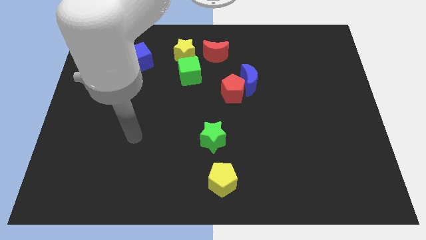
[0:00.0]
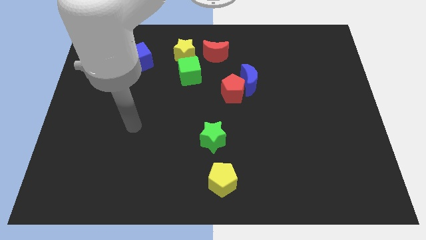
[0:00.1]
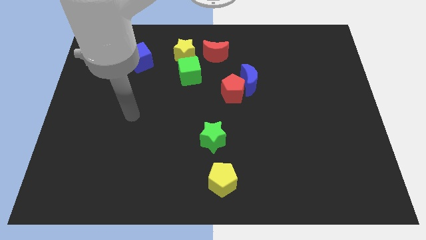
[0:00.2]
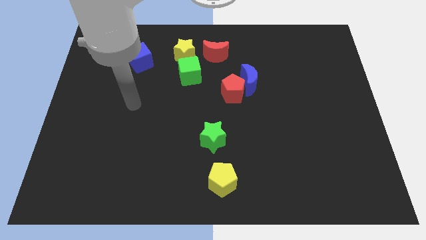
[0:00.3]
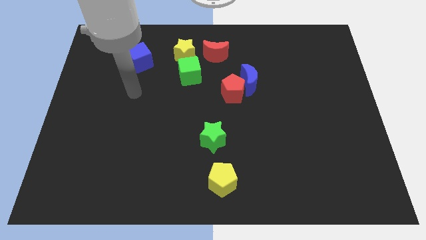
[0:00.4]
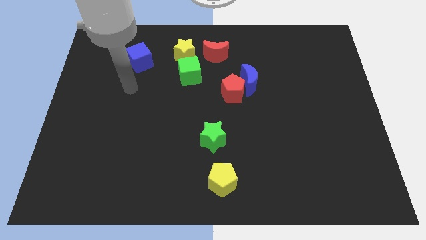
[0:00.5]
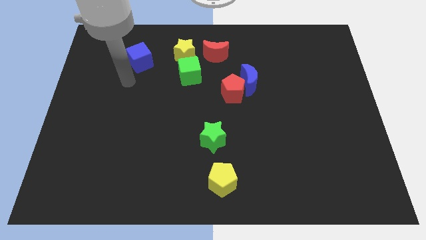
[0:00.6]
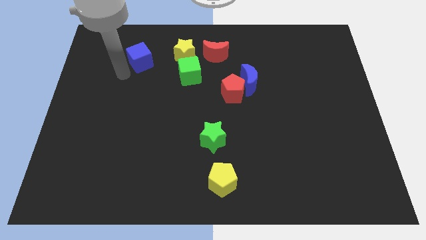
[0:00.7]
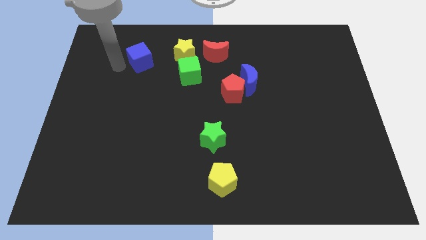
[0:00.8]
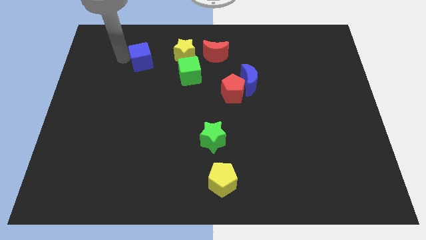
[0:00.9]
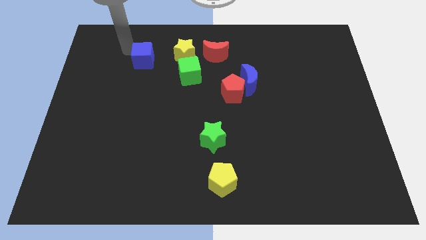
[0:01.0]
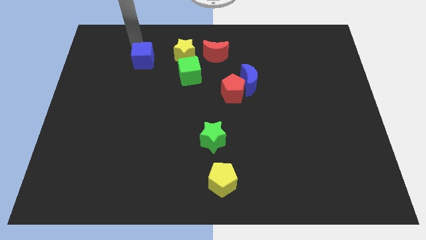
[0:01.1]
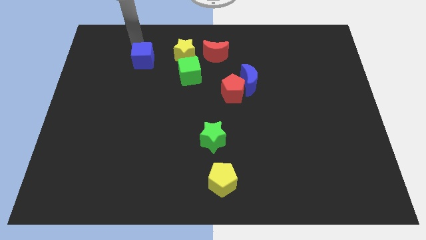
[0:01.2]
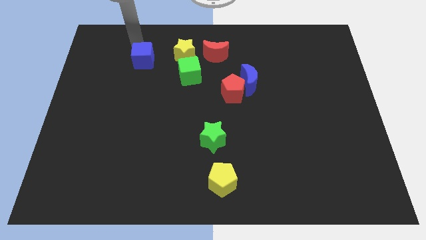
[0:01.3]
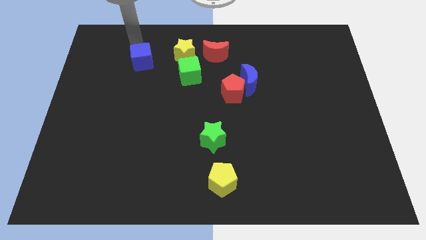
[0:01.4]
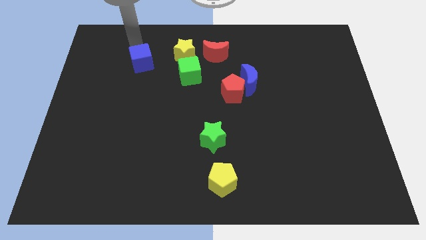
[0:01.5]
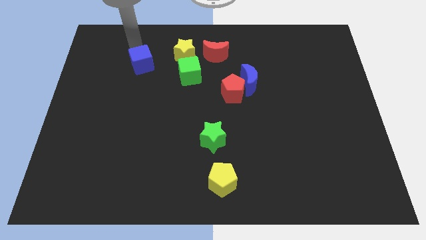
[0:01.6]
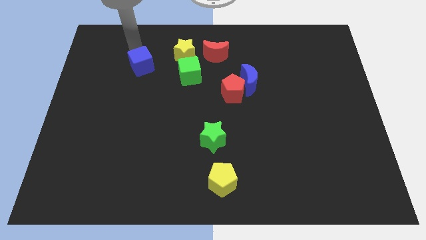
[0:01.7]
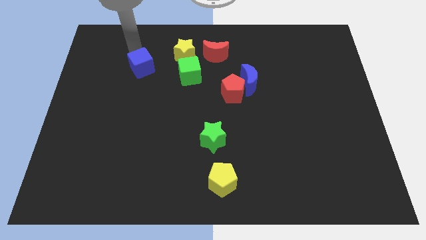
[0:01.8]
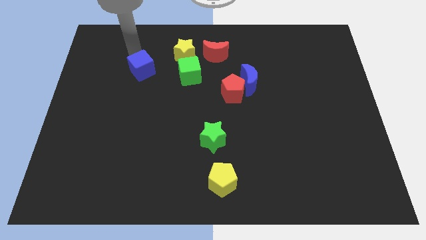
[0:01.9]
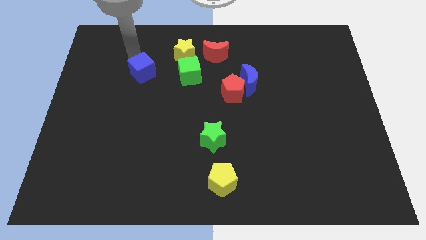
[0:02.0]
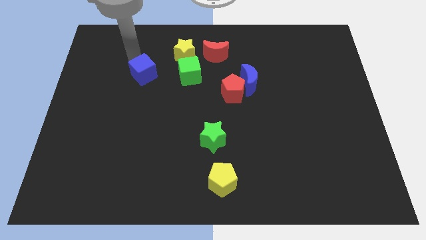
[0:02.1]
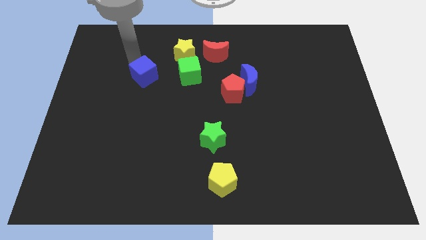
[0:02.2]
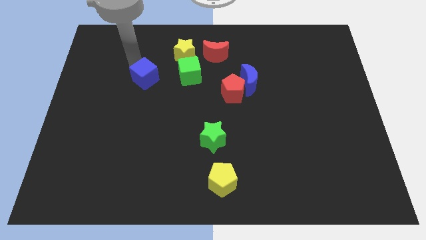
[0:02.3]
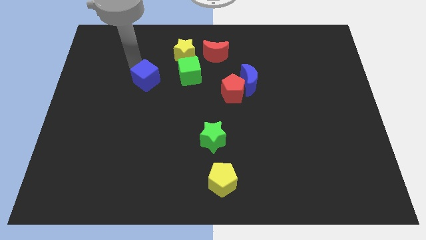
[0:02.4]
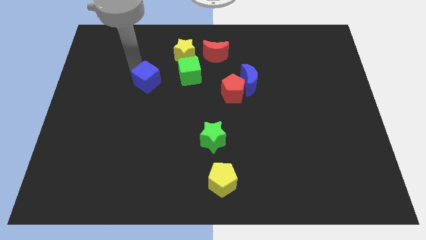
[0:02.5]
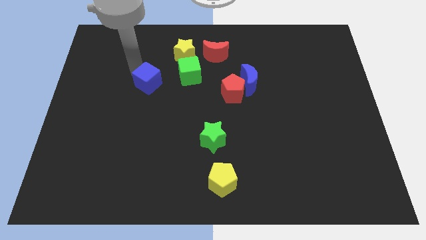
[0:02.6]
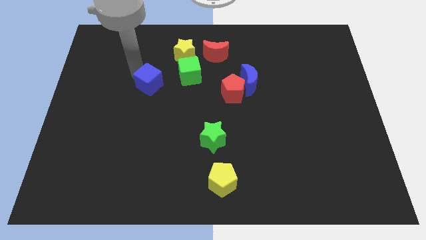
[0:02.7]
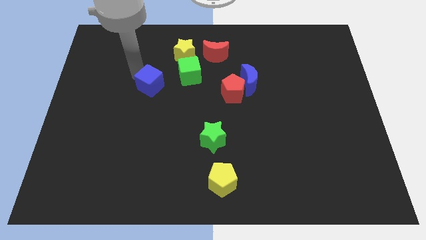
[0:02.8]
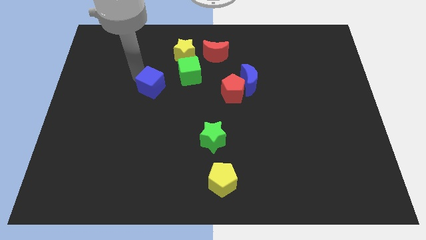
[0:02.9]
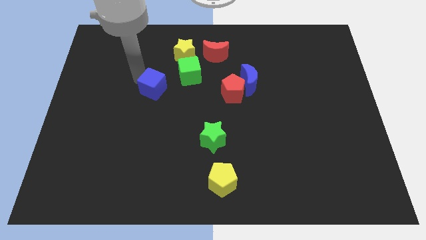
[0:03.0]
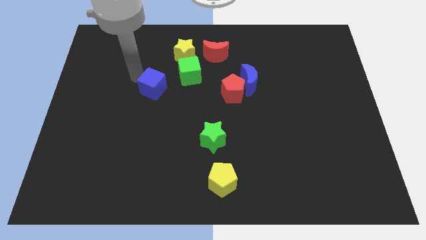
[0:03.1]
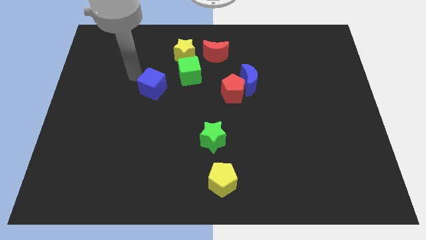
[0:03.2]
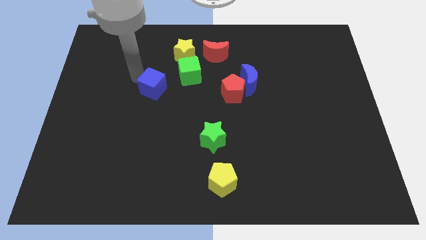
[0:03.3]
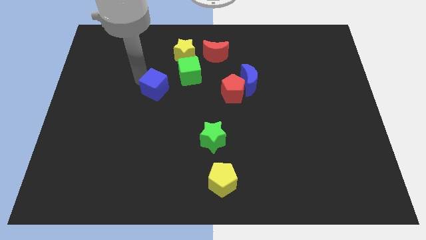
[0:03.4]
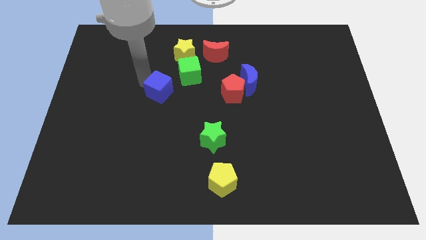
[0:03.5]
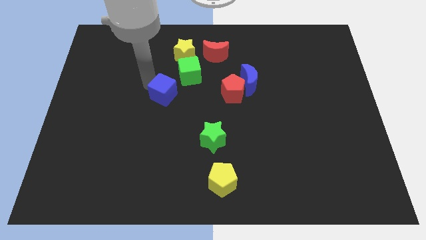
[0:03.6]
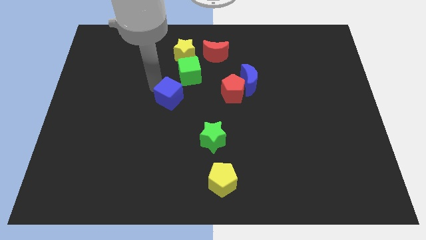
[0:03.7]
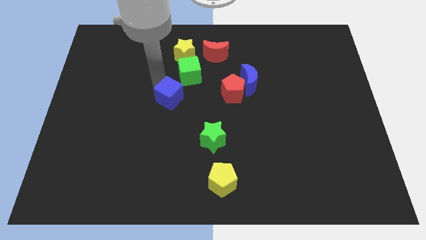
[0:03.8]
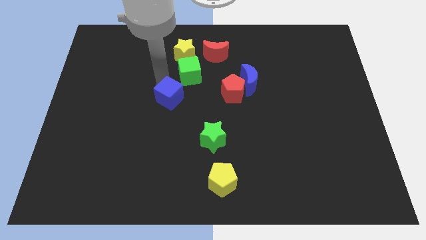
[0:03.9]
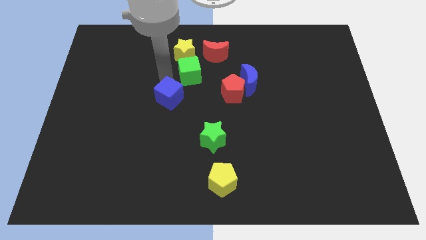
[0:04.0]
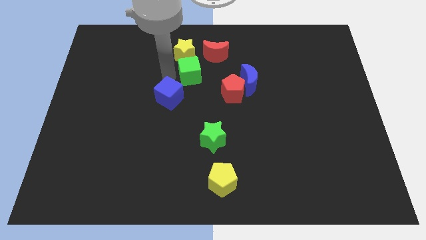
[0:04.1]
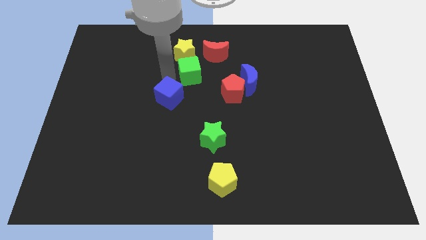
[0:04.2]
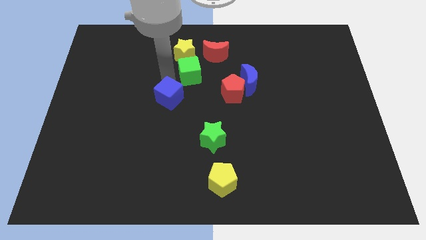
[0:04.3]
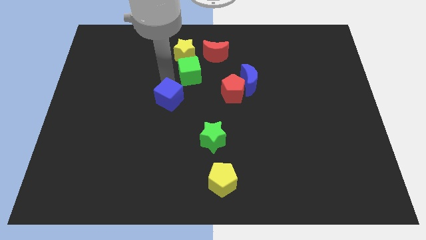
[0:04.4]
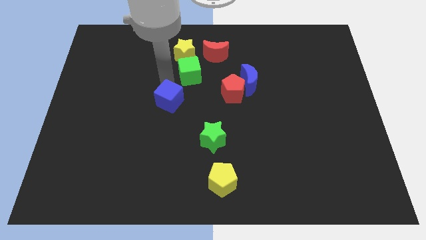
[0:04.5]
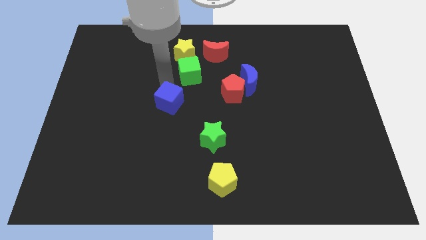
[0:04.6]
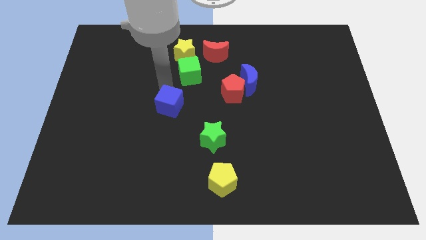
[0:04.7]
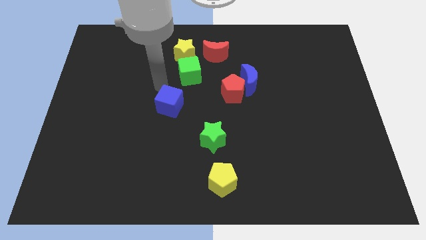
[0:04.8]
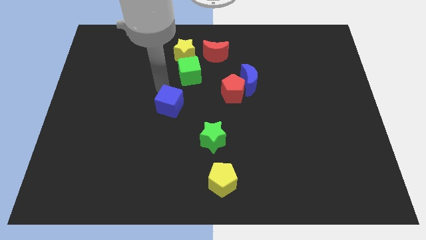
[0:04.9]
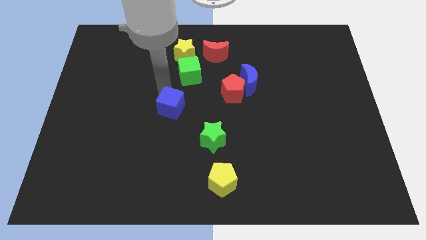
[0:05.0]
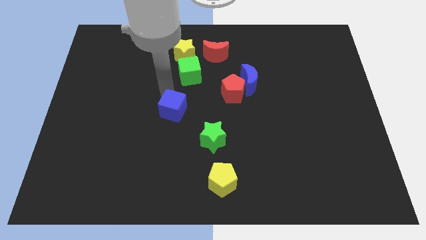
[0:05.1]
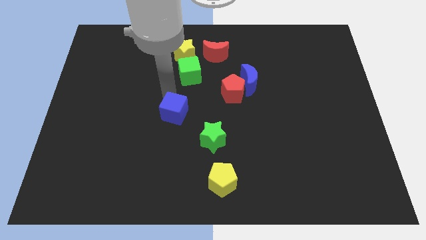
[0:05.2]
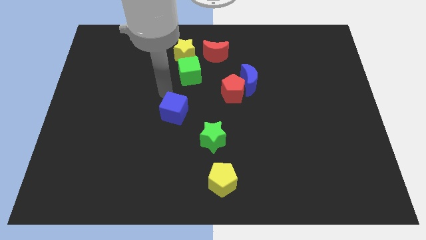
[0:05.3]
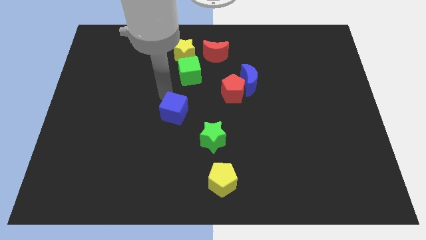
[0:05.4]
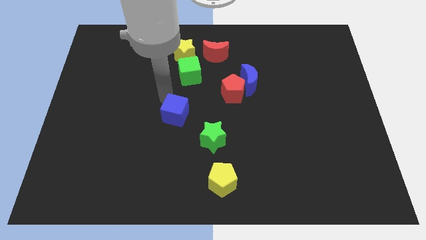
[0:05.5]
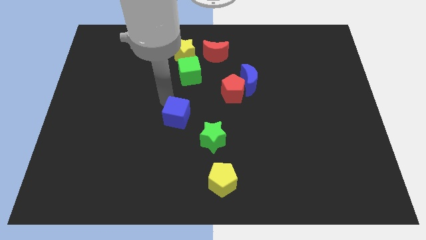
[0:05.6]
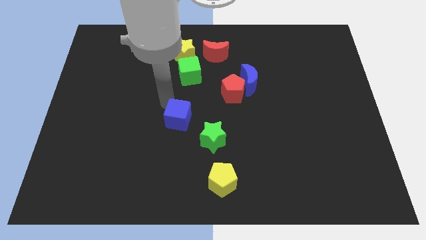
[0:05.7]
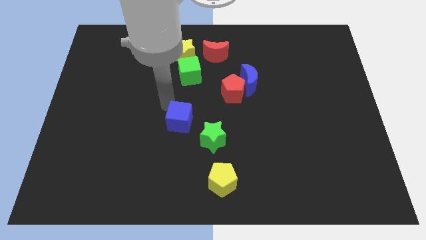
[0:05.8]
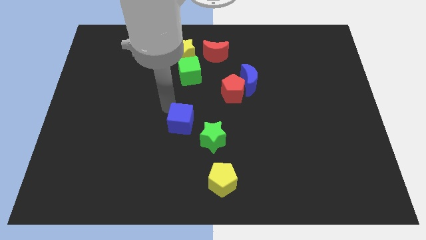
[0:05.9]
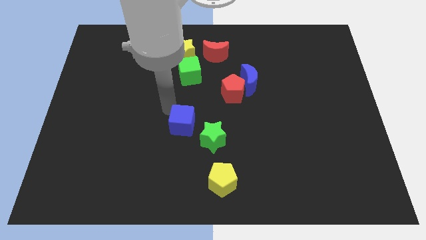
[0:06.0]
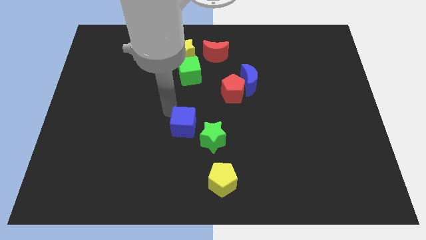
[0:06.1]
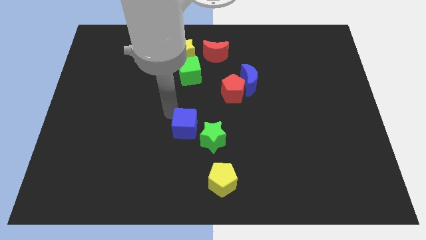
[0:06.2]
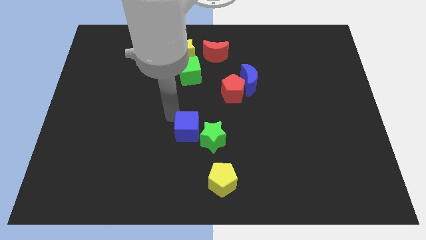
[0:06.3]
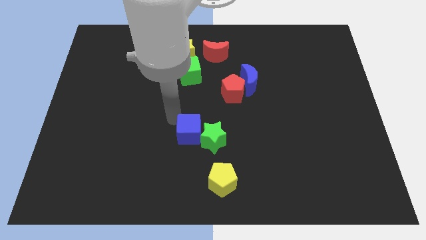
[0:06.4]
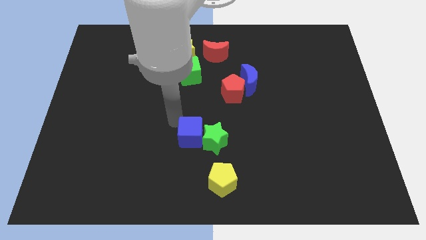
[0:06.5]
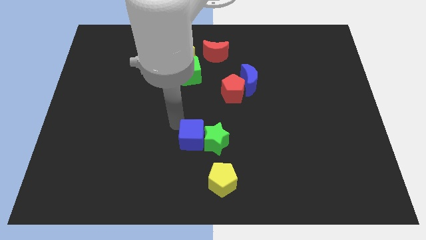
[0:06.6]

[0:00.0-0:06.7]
slide the blue cube diagonally up and to the left of the yellow pentagon

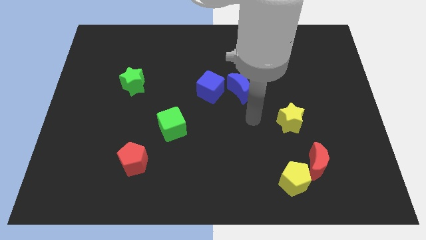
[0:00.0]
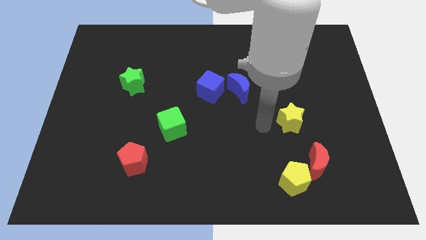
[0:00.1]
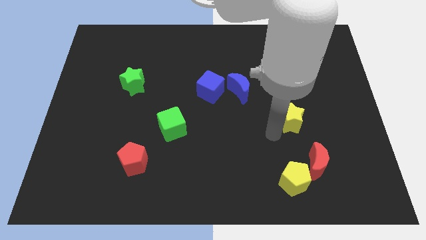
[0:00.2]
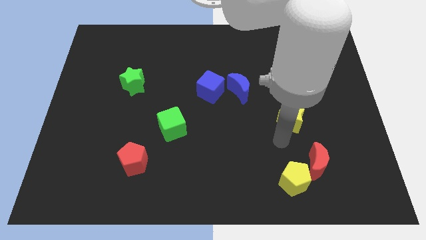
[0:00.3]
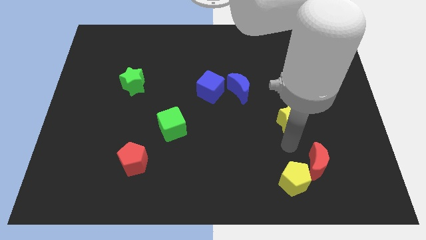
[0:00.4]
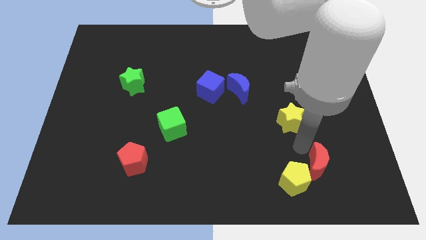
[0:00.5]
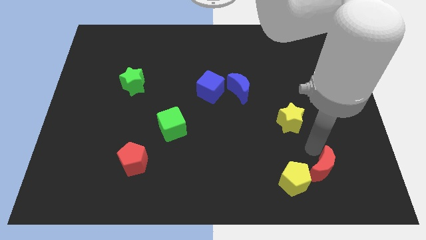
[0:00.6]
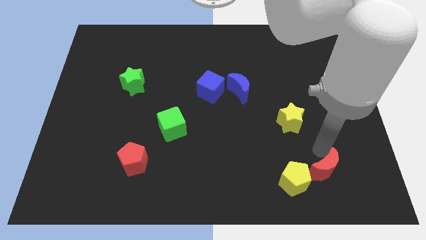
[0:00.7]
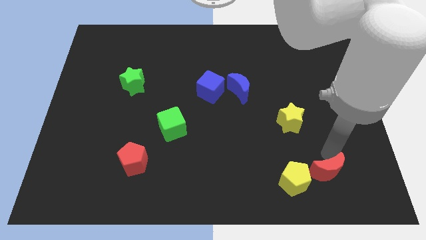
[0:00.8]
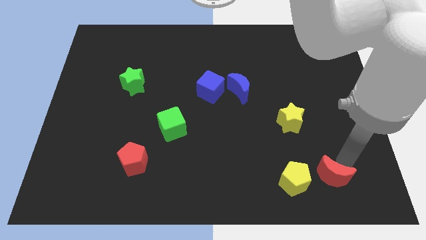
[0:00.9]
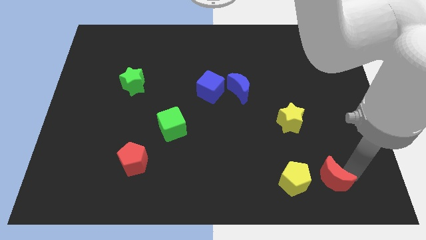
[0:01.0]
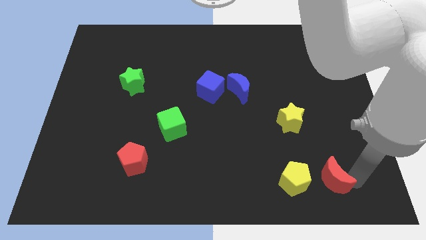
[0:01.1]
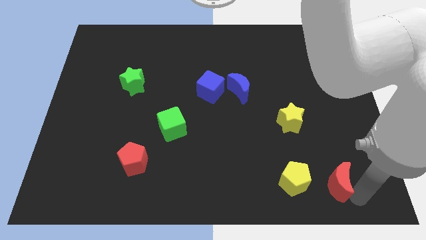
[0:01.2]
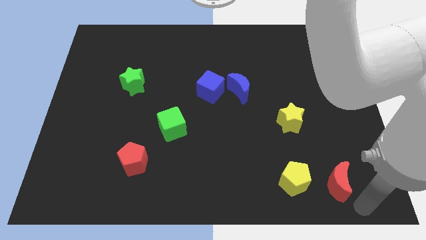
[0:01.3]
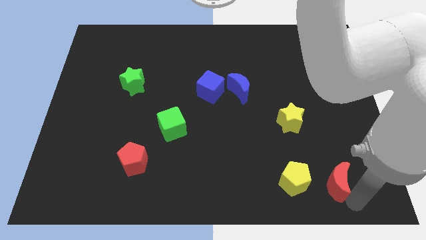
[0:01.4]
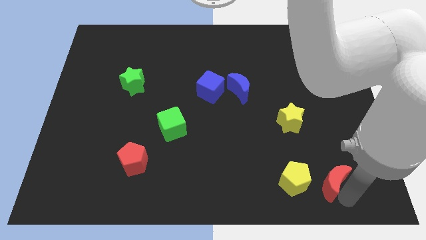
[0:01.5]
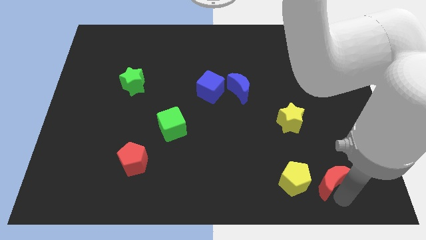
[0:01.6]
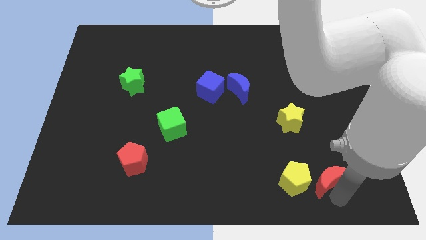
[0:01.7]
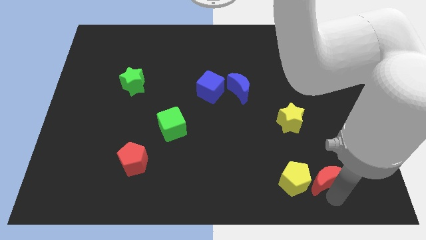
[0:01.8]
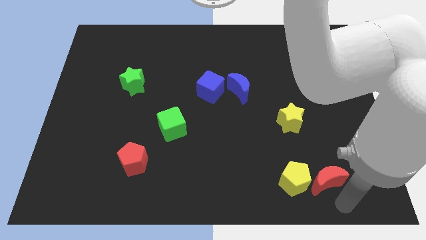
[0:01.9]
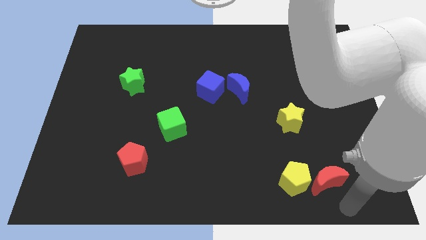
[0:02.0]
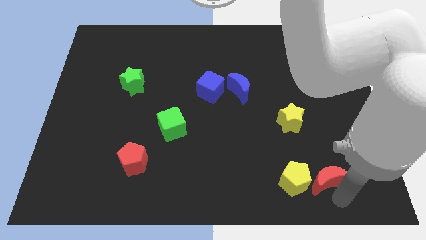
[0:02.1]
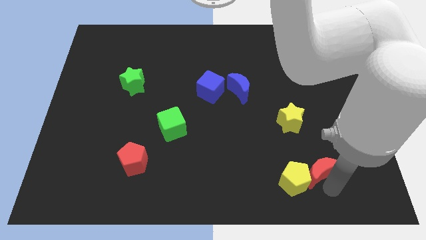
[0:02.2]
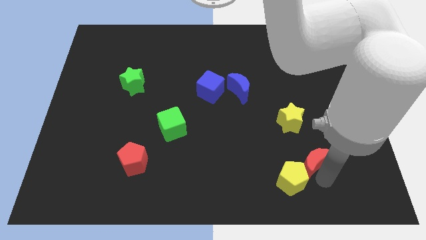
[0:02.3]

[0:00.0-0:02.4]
move the red moon above the yellow pentagon
